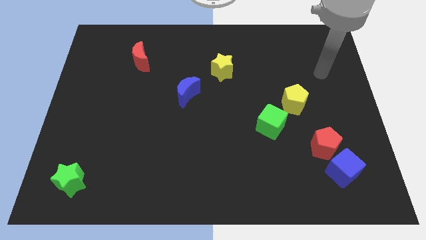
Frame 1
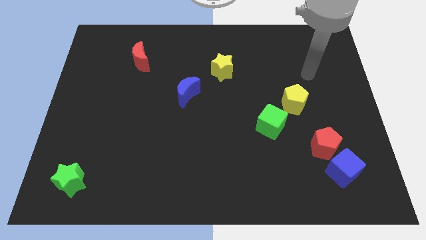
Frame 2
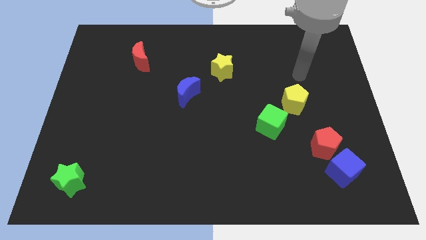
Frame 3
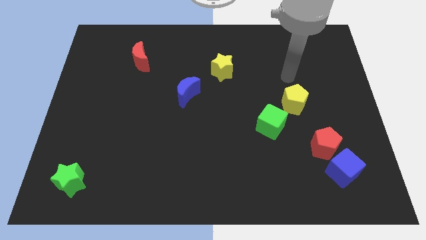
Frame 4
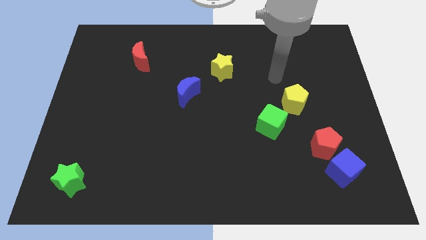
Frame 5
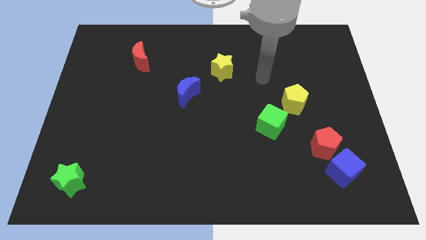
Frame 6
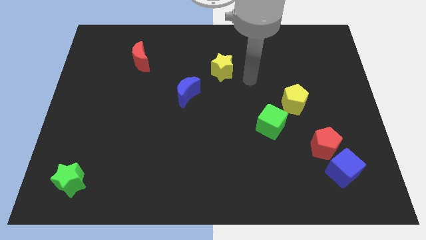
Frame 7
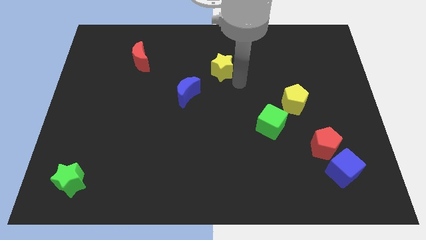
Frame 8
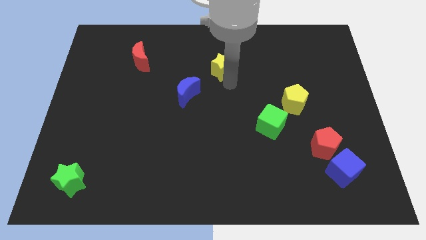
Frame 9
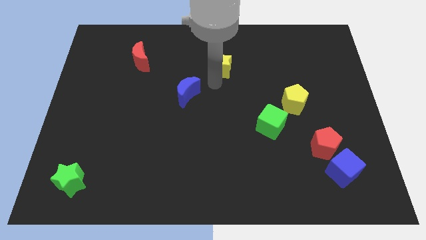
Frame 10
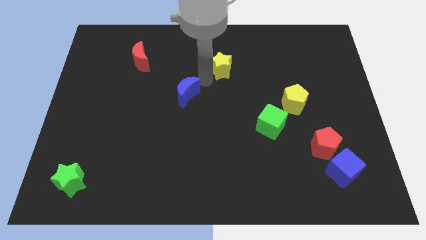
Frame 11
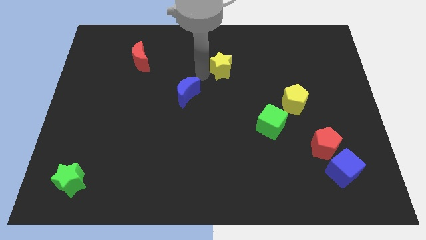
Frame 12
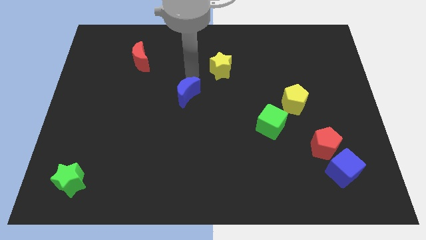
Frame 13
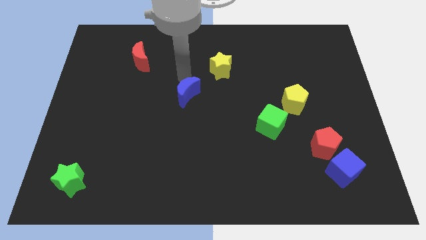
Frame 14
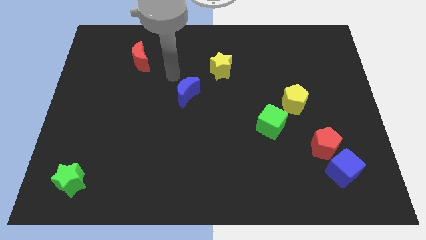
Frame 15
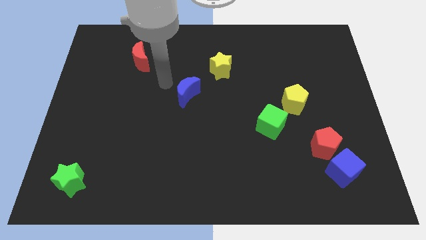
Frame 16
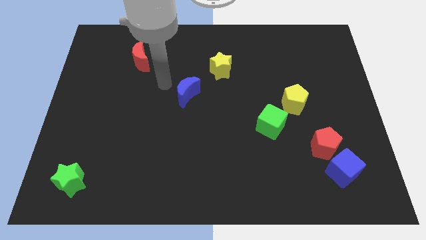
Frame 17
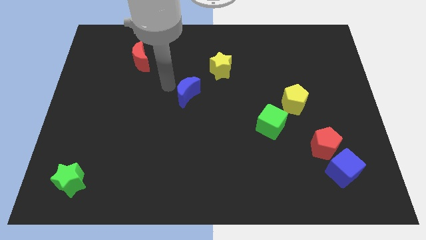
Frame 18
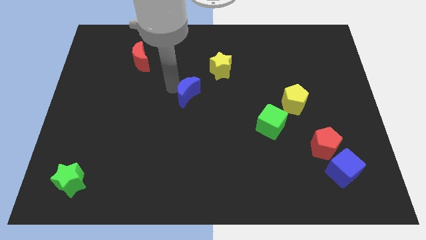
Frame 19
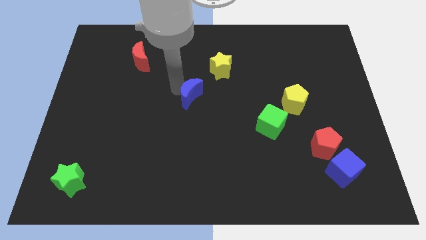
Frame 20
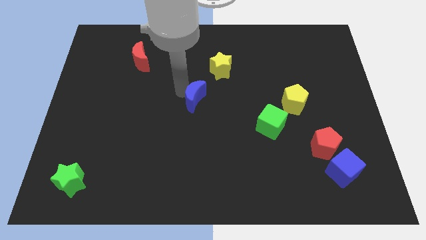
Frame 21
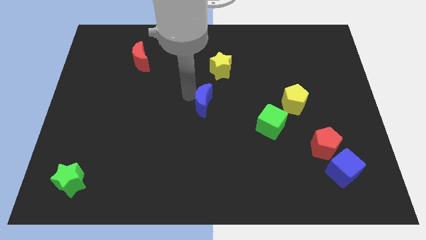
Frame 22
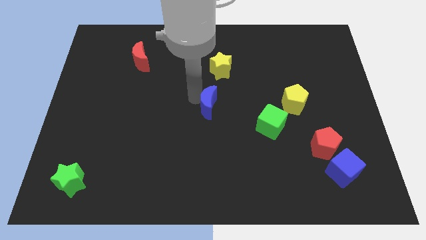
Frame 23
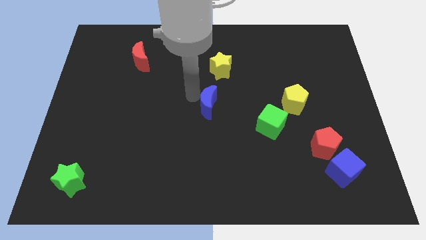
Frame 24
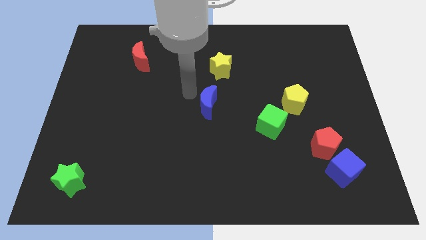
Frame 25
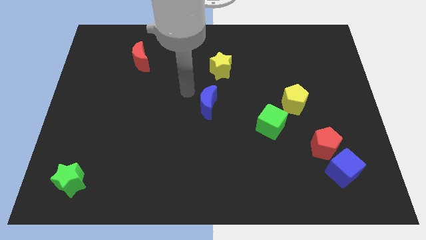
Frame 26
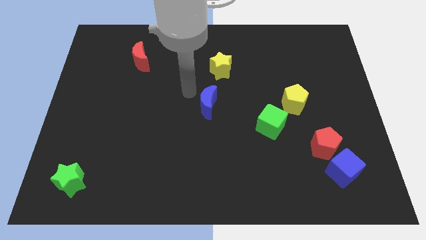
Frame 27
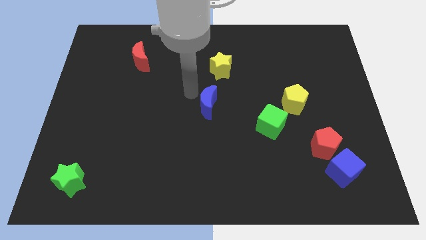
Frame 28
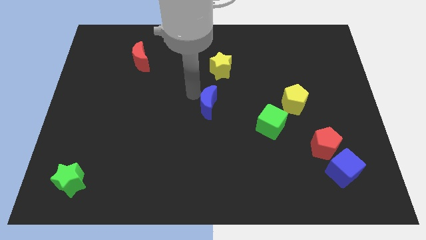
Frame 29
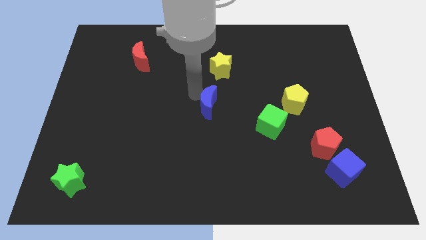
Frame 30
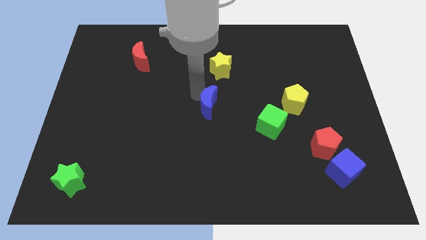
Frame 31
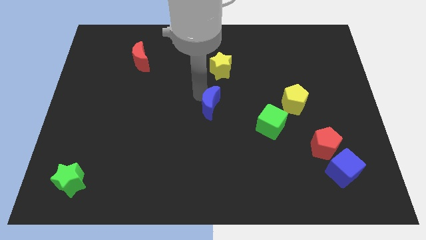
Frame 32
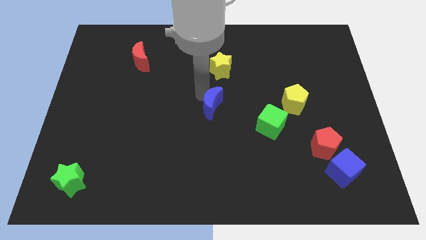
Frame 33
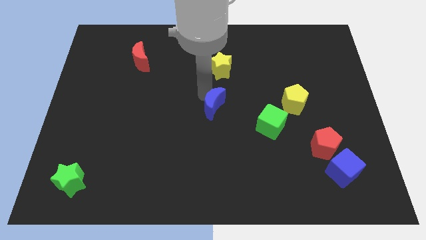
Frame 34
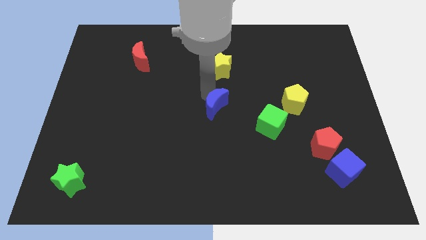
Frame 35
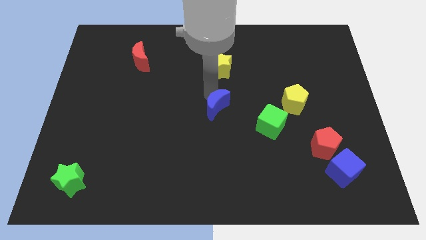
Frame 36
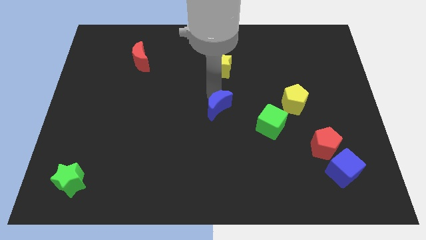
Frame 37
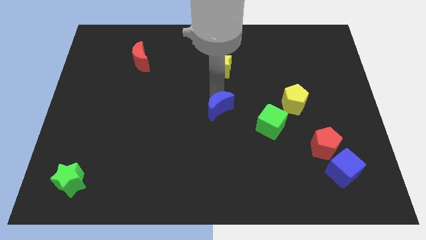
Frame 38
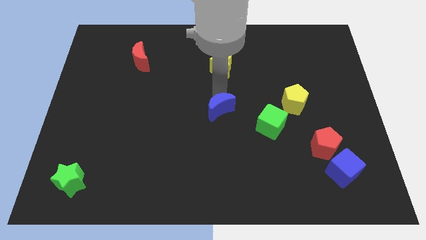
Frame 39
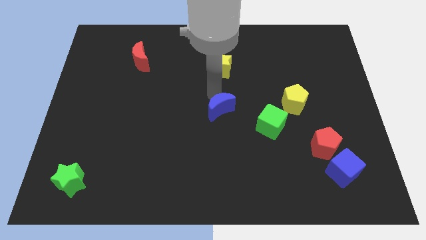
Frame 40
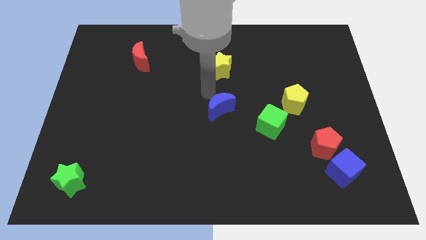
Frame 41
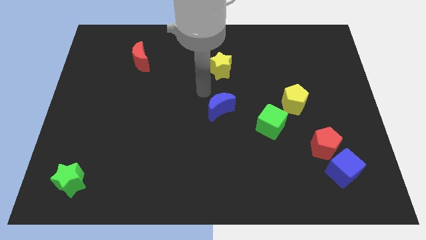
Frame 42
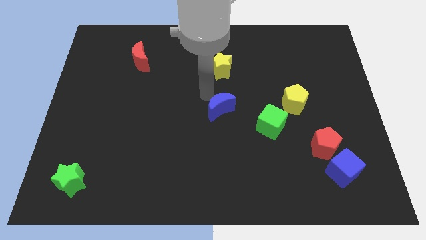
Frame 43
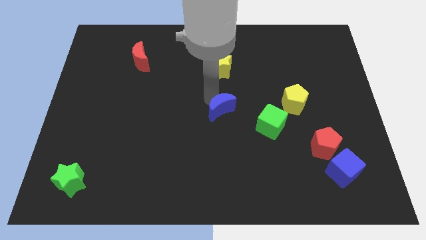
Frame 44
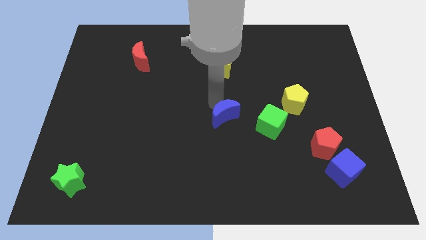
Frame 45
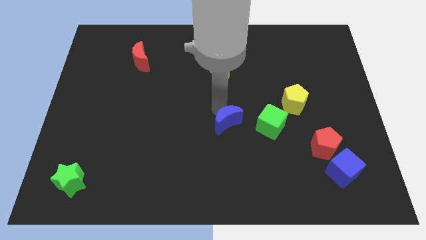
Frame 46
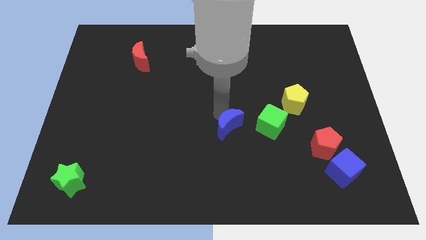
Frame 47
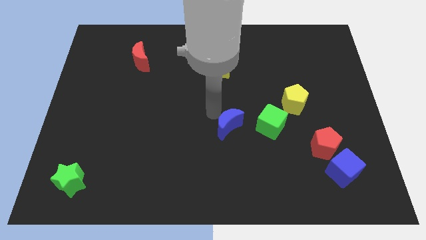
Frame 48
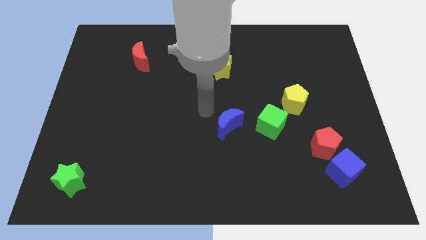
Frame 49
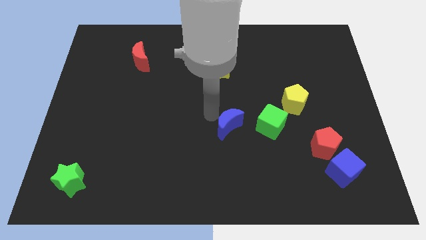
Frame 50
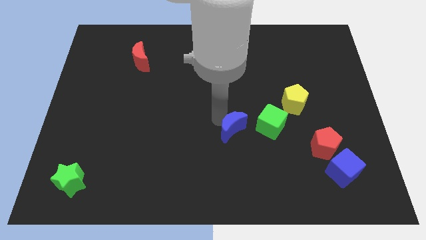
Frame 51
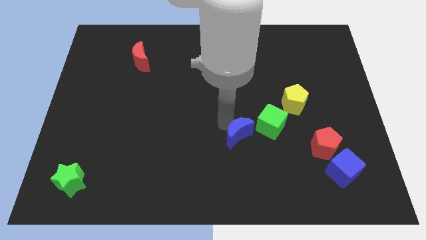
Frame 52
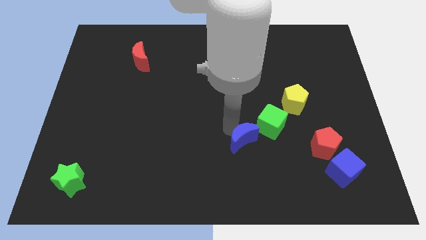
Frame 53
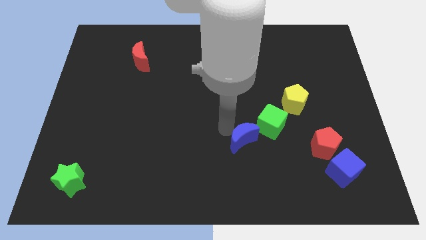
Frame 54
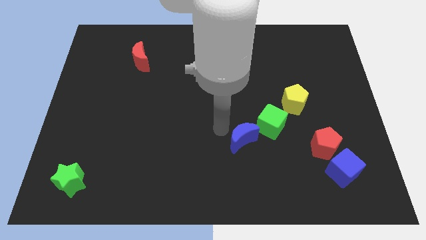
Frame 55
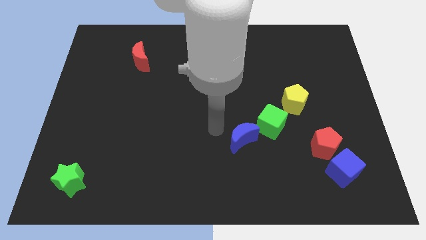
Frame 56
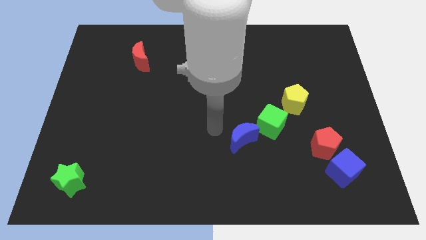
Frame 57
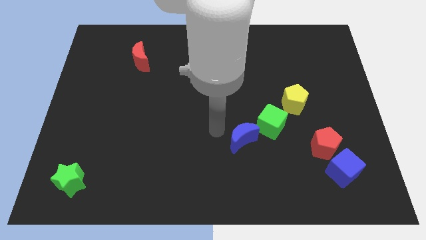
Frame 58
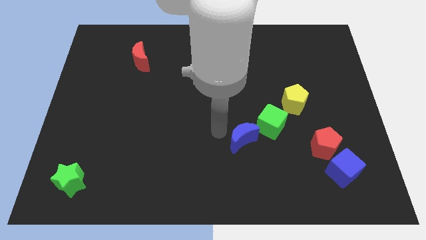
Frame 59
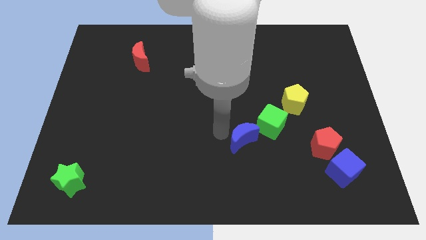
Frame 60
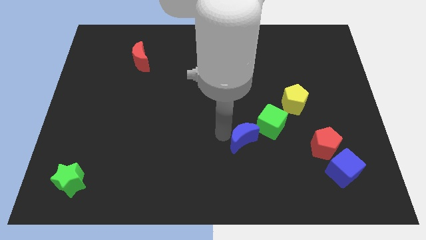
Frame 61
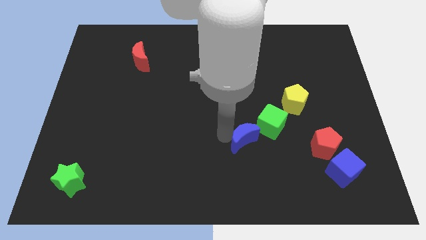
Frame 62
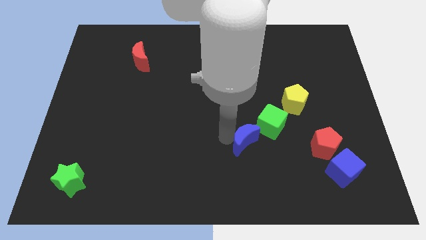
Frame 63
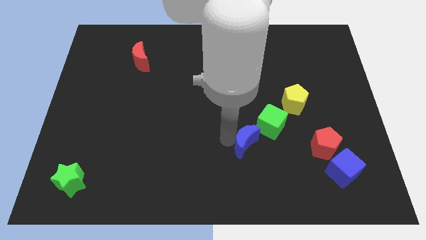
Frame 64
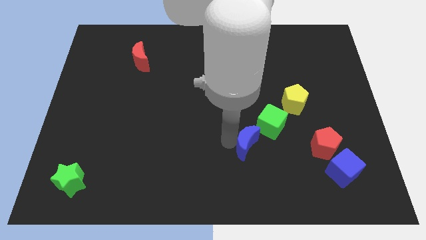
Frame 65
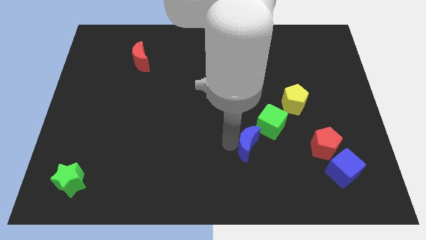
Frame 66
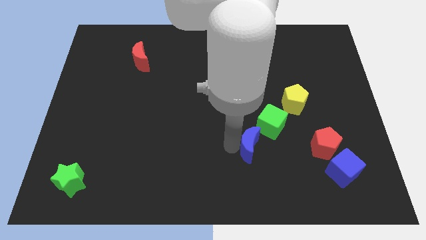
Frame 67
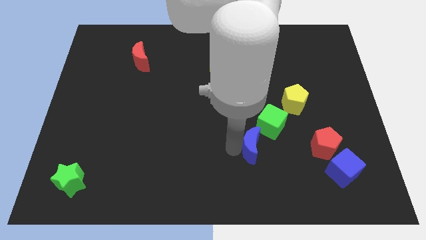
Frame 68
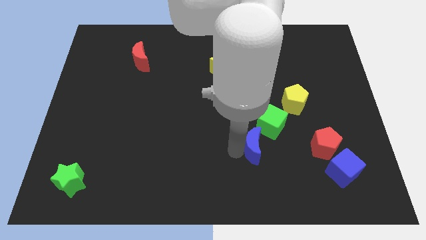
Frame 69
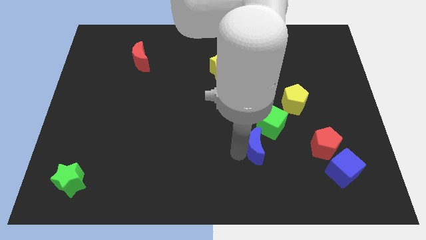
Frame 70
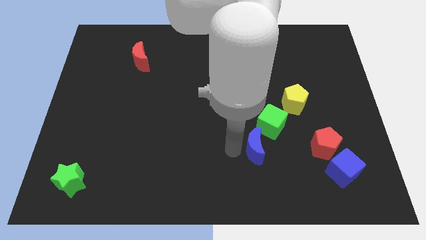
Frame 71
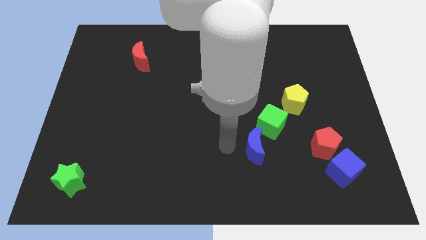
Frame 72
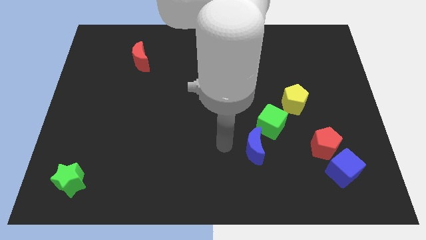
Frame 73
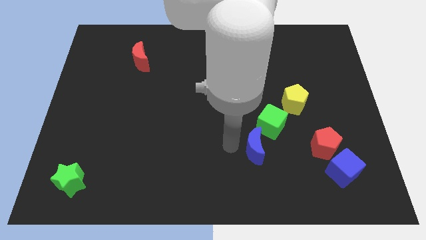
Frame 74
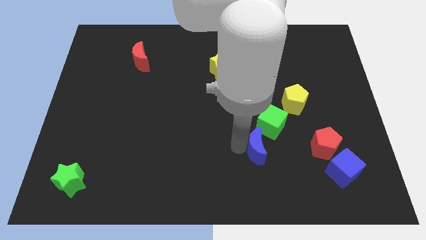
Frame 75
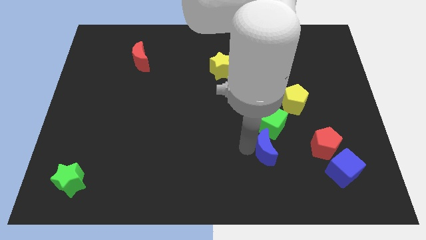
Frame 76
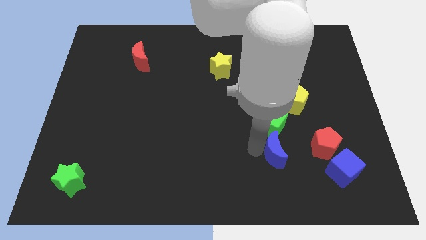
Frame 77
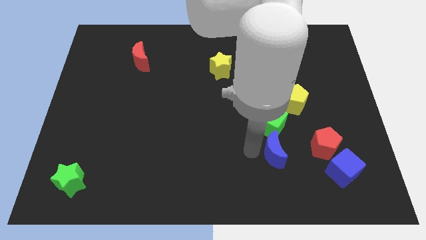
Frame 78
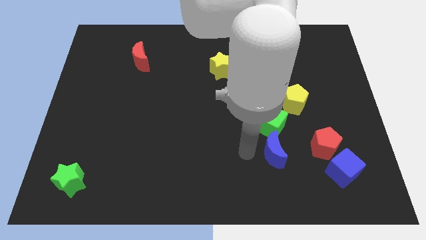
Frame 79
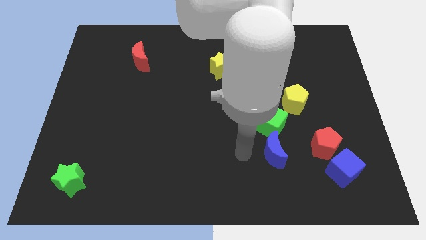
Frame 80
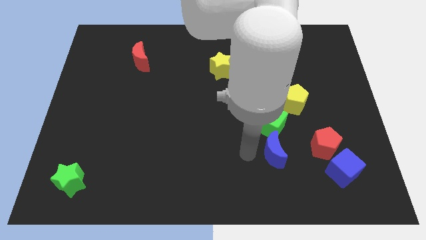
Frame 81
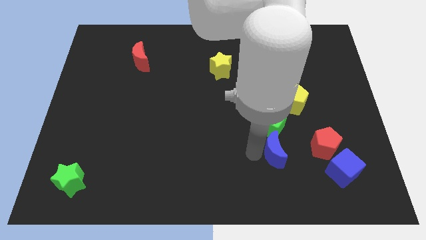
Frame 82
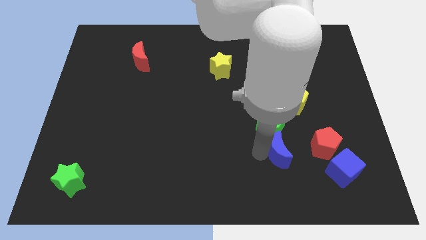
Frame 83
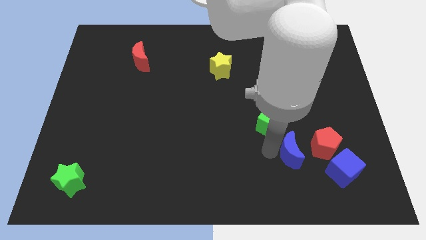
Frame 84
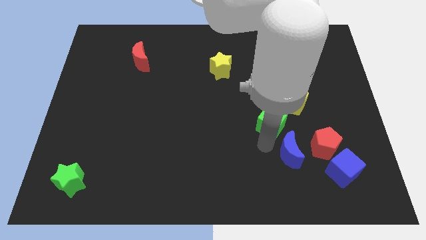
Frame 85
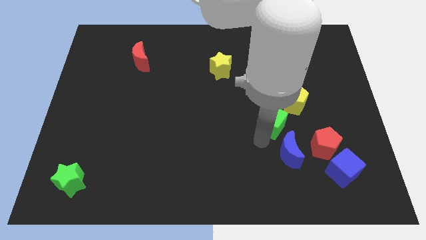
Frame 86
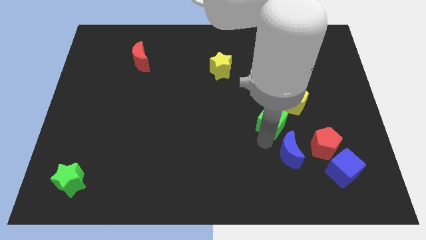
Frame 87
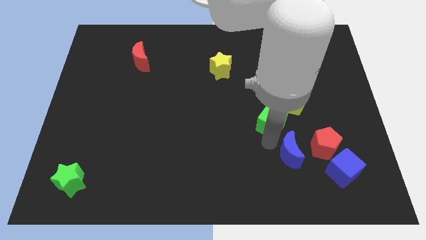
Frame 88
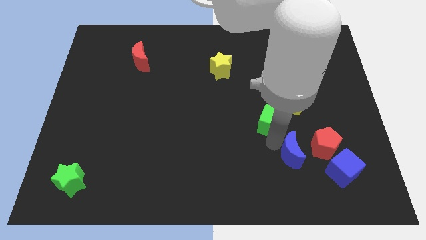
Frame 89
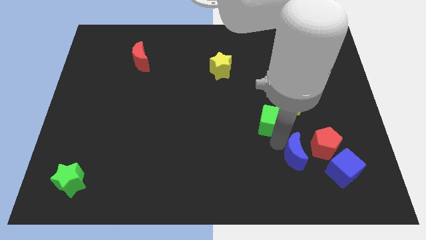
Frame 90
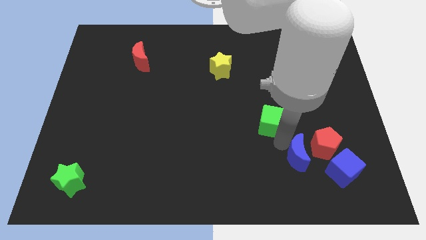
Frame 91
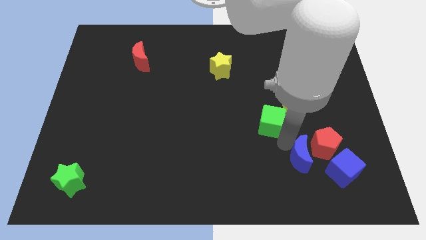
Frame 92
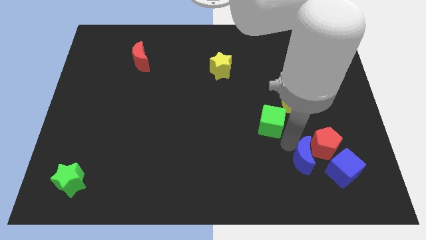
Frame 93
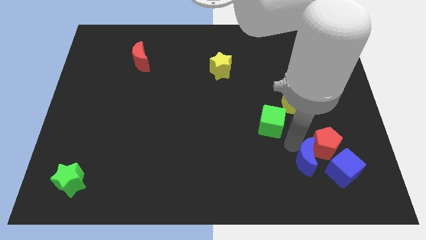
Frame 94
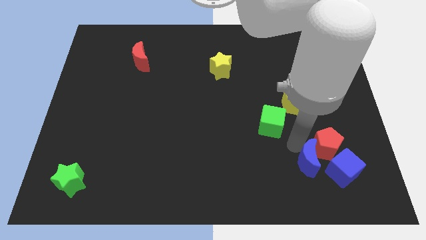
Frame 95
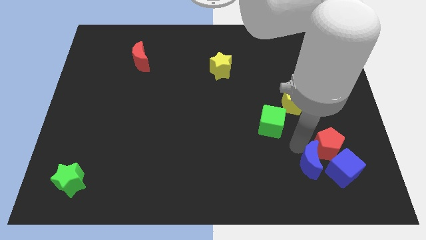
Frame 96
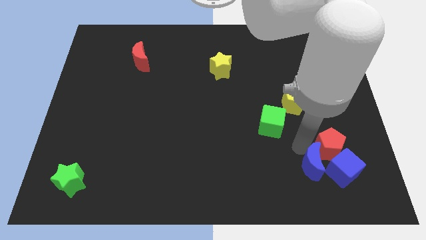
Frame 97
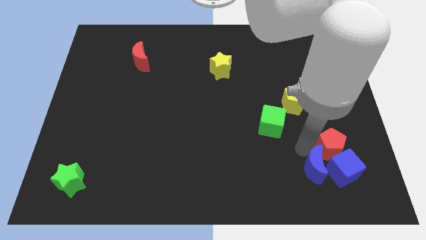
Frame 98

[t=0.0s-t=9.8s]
push the blue moon to the blue cube
